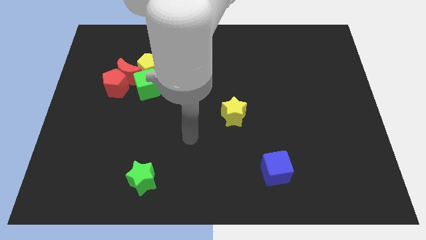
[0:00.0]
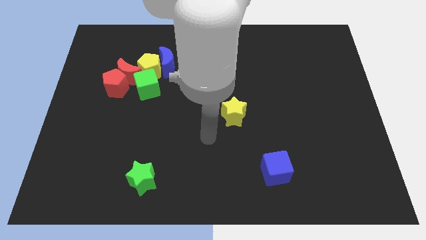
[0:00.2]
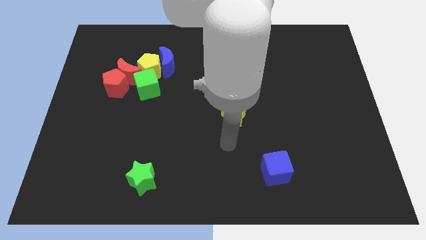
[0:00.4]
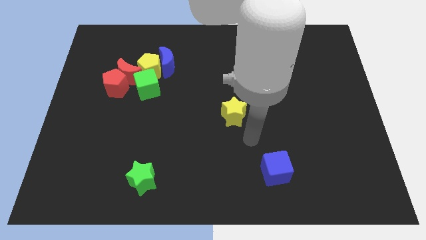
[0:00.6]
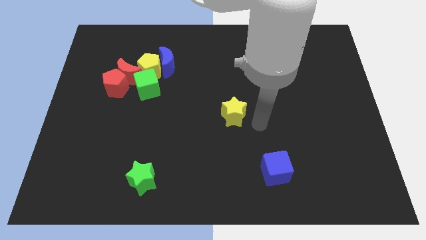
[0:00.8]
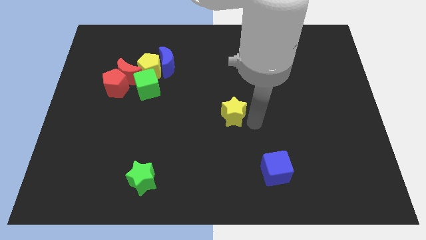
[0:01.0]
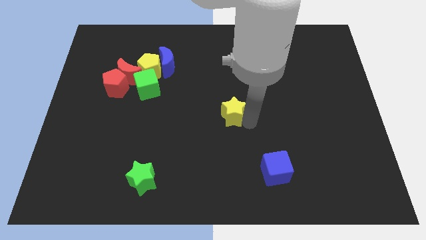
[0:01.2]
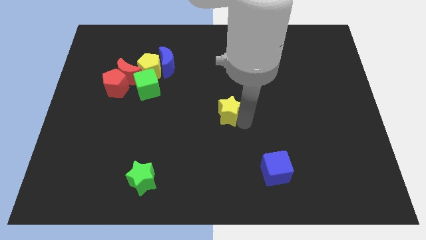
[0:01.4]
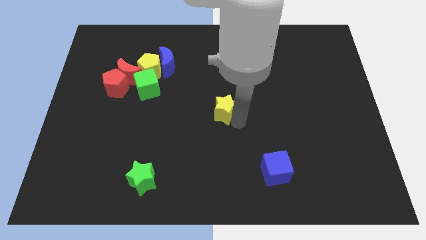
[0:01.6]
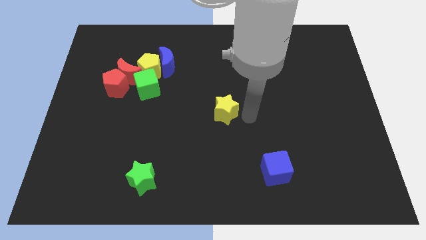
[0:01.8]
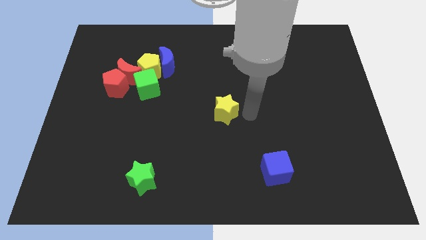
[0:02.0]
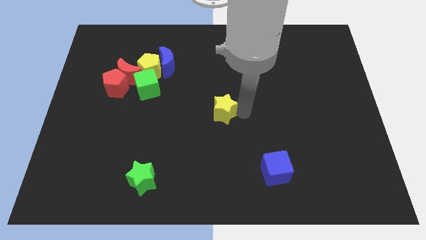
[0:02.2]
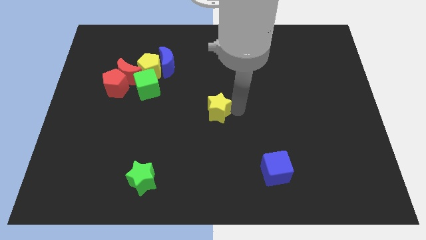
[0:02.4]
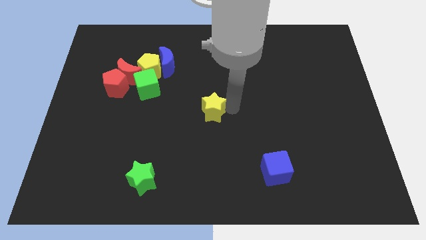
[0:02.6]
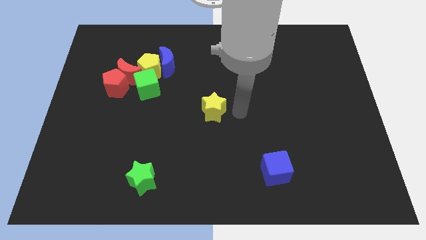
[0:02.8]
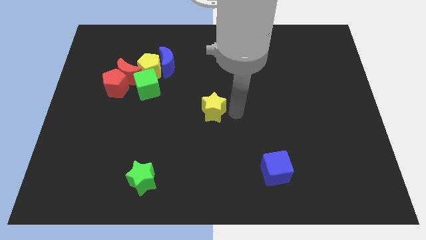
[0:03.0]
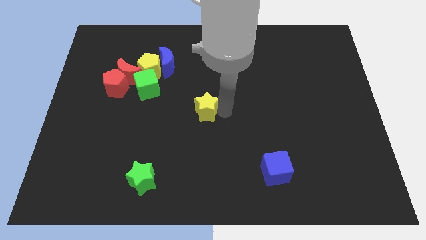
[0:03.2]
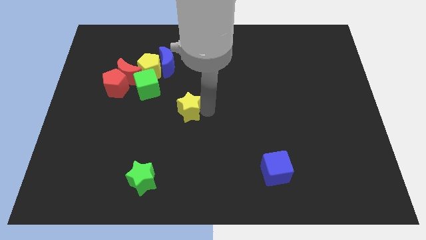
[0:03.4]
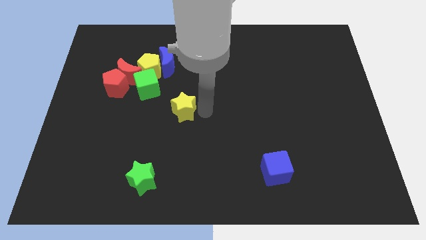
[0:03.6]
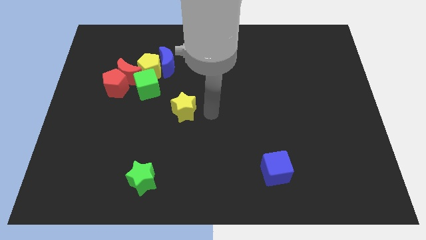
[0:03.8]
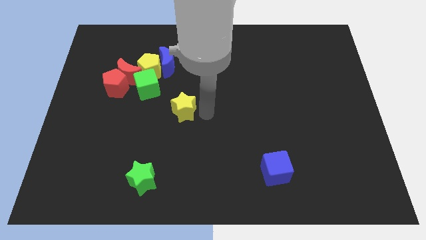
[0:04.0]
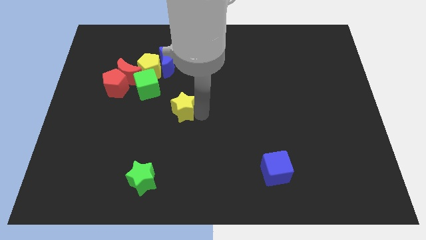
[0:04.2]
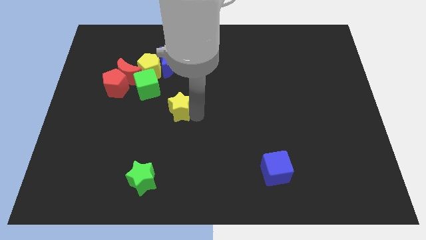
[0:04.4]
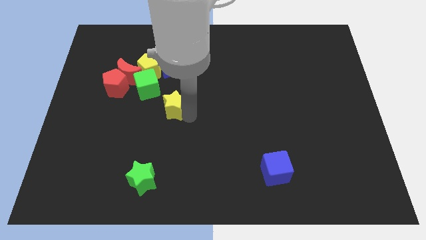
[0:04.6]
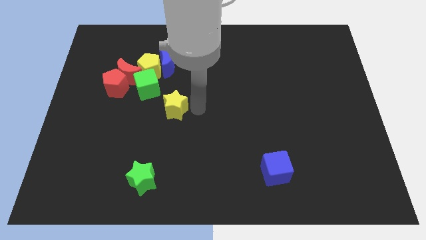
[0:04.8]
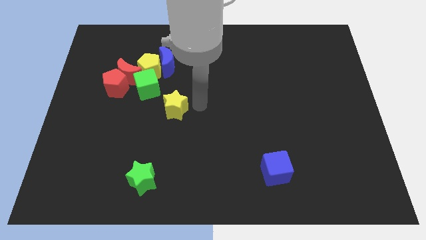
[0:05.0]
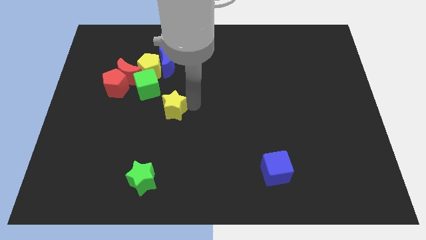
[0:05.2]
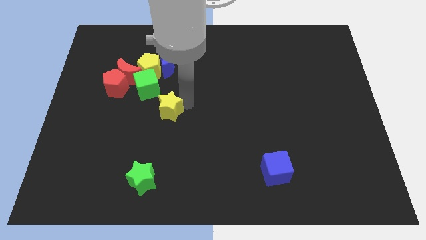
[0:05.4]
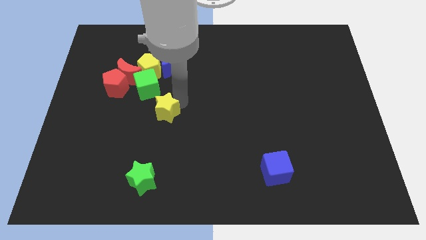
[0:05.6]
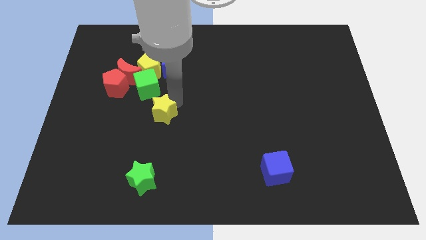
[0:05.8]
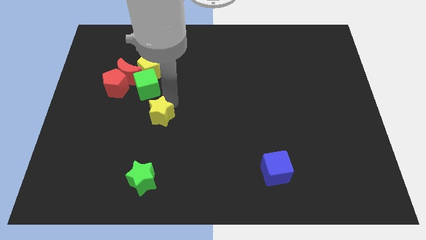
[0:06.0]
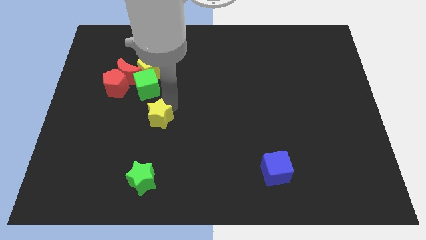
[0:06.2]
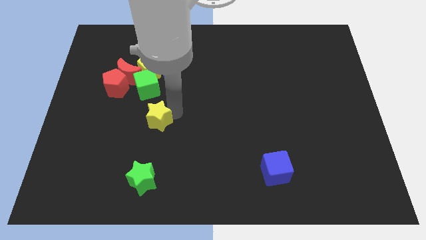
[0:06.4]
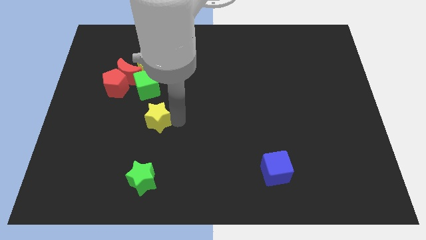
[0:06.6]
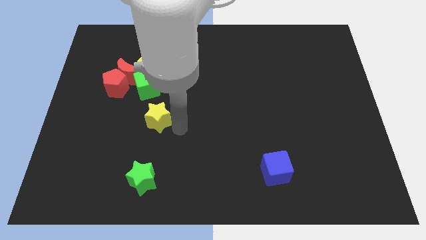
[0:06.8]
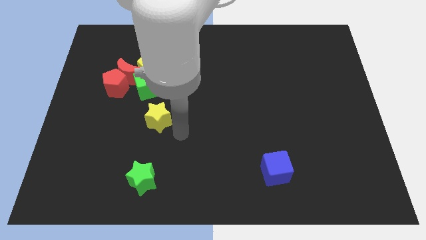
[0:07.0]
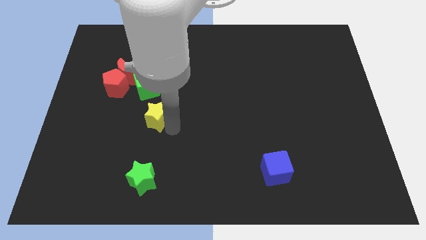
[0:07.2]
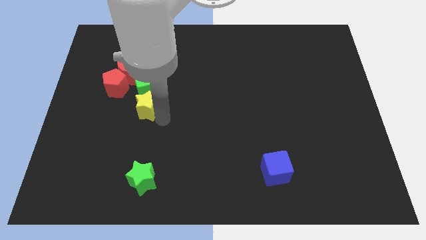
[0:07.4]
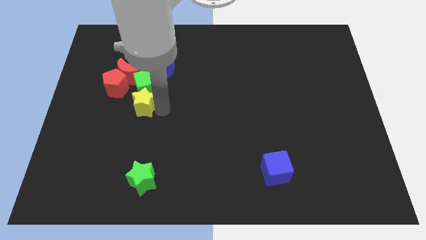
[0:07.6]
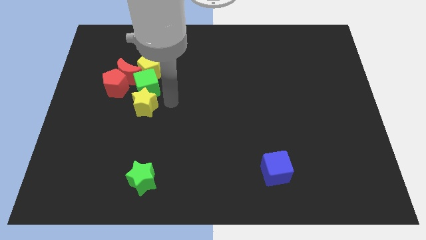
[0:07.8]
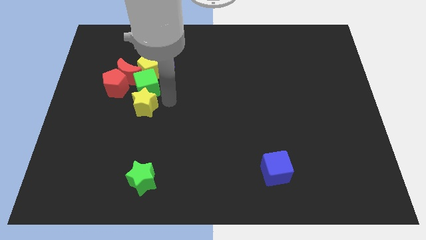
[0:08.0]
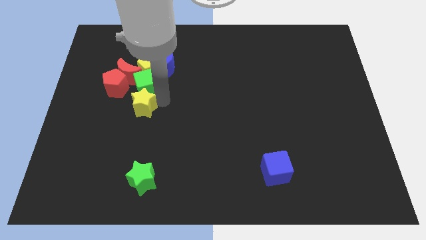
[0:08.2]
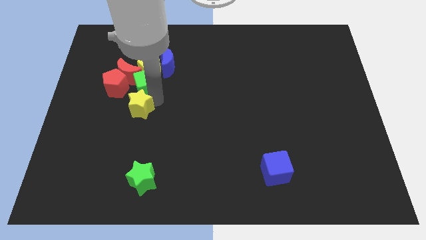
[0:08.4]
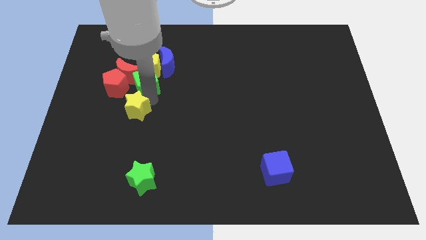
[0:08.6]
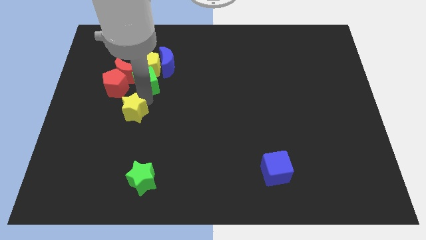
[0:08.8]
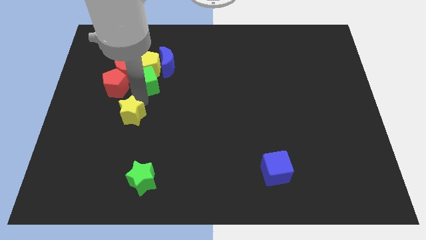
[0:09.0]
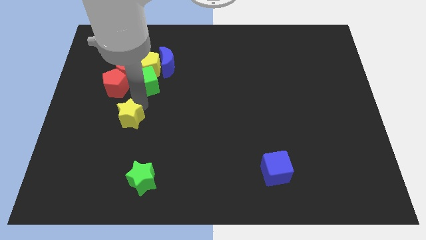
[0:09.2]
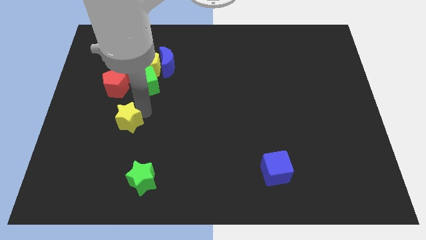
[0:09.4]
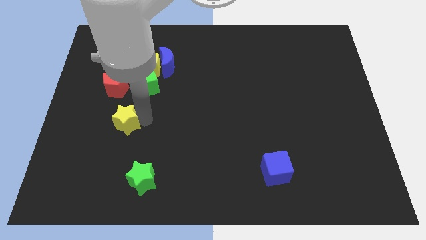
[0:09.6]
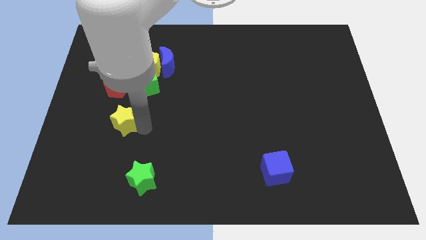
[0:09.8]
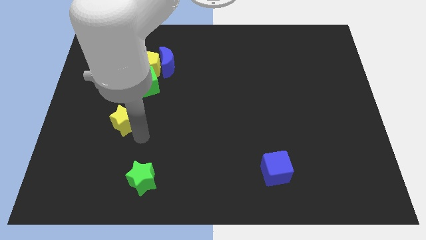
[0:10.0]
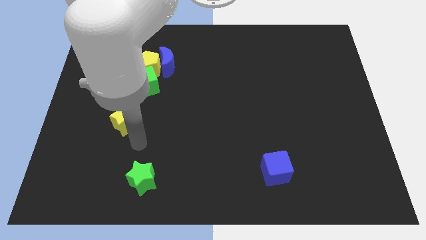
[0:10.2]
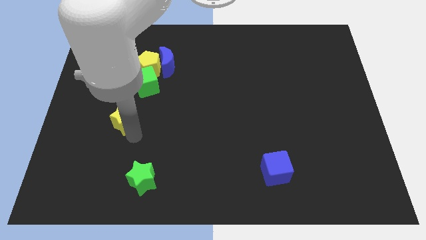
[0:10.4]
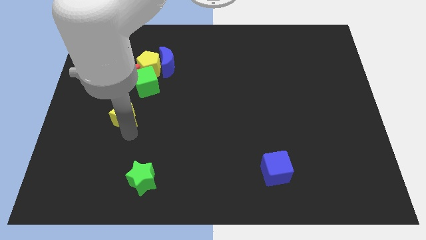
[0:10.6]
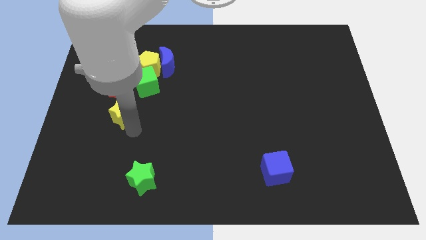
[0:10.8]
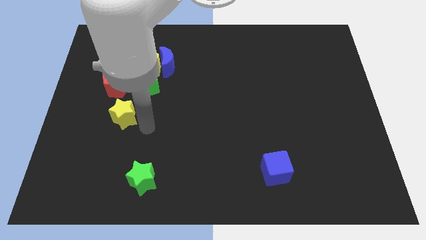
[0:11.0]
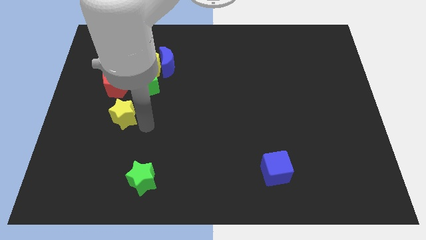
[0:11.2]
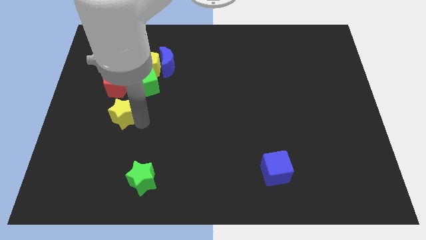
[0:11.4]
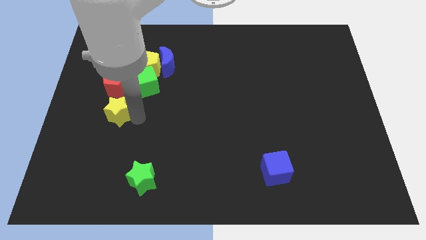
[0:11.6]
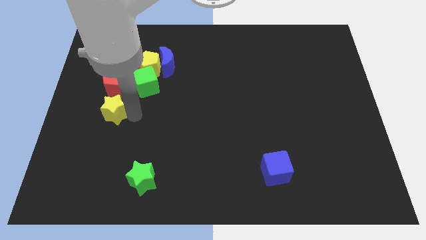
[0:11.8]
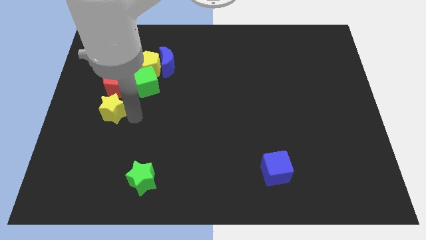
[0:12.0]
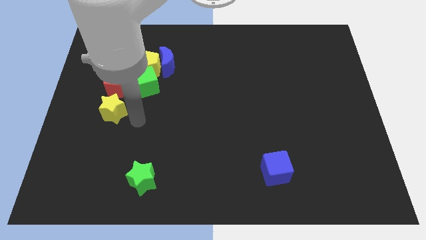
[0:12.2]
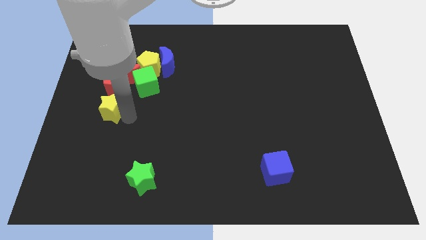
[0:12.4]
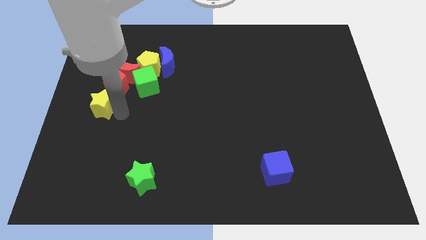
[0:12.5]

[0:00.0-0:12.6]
push the yellow star to the left side
